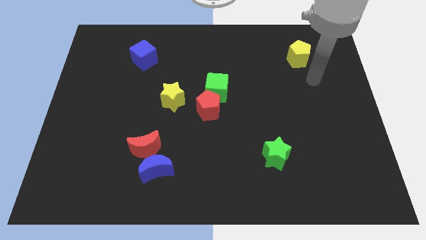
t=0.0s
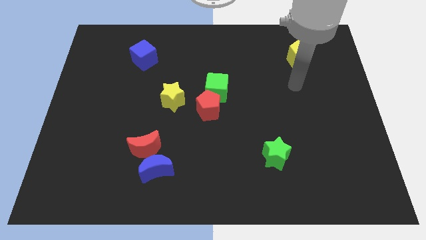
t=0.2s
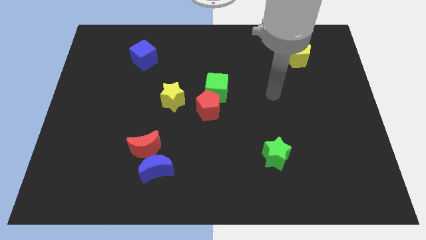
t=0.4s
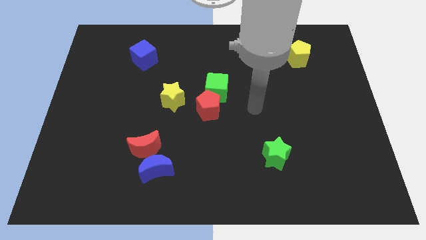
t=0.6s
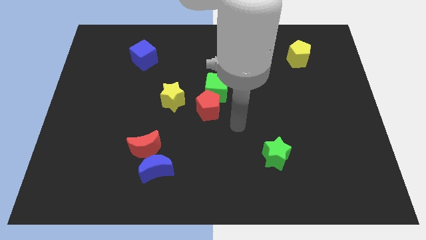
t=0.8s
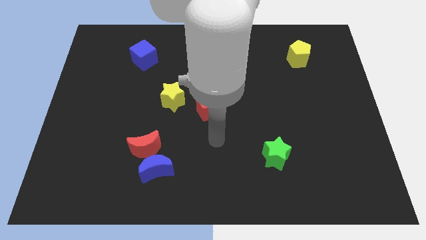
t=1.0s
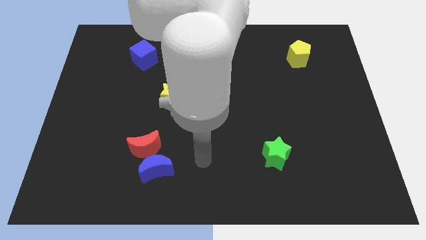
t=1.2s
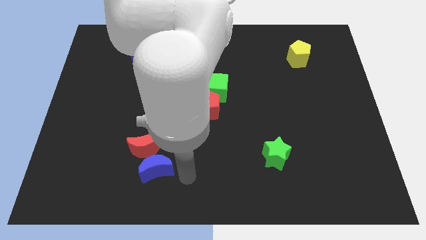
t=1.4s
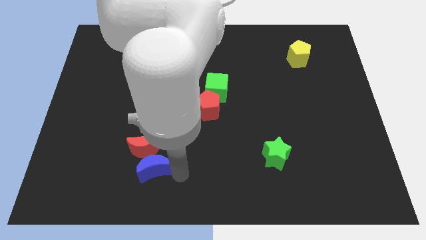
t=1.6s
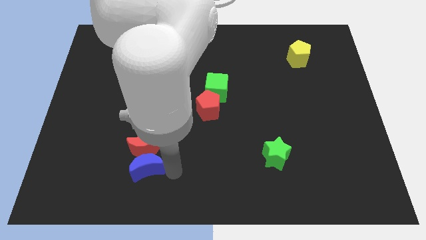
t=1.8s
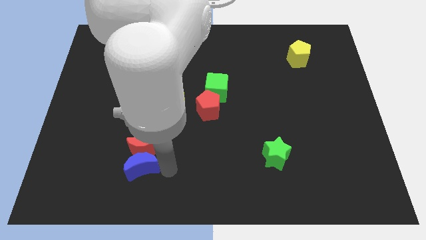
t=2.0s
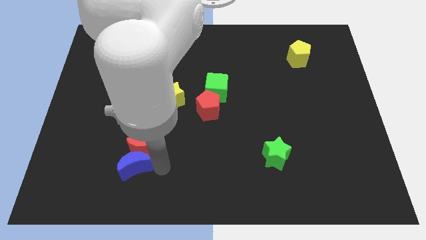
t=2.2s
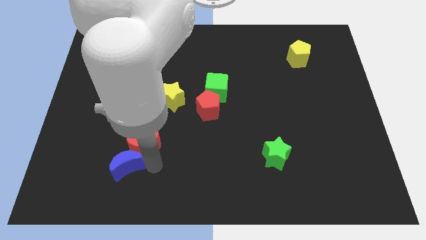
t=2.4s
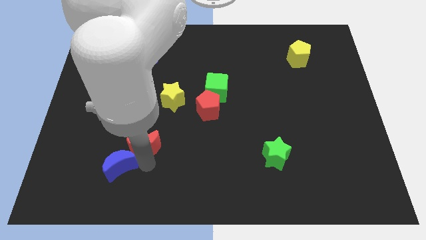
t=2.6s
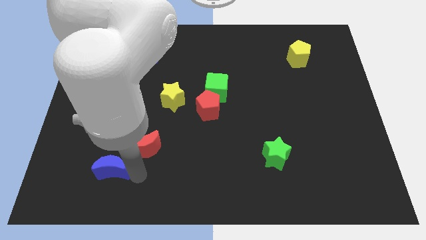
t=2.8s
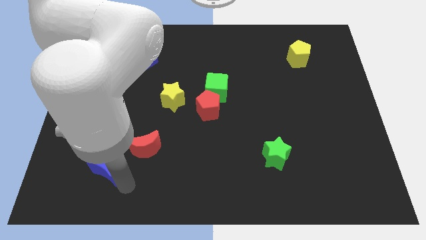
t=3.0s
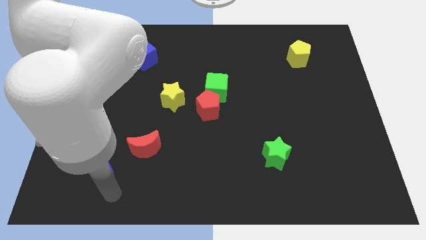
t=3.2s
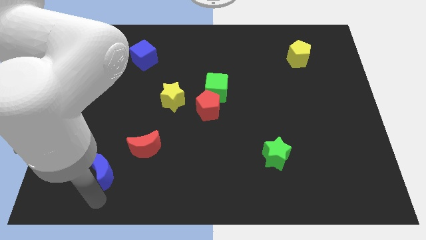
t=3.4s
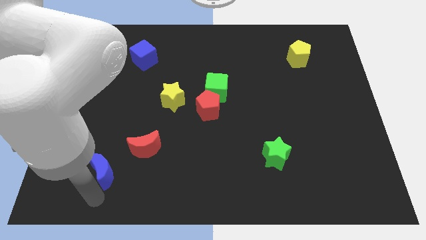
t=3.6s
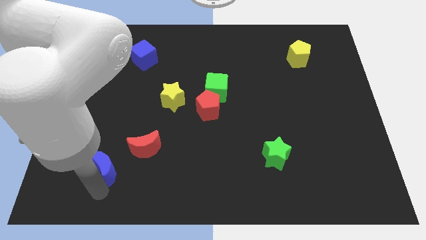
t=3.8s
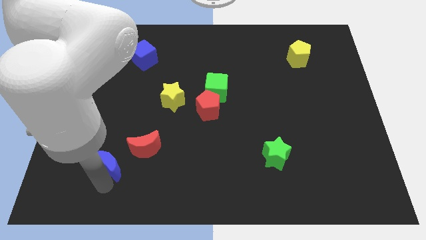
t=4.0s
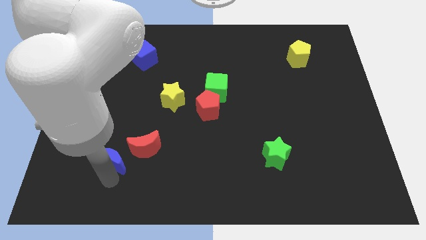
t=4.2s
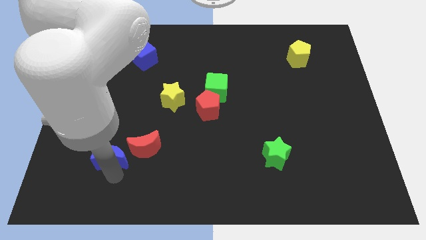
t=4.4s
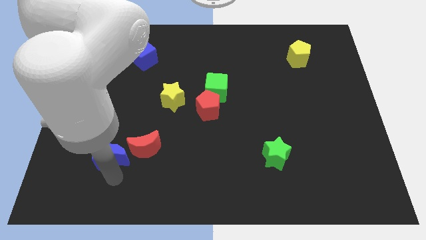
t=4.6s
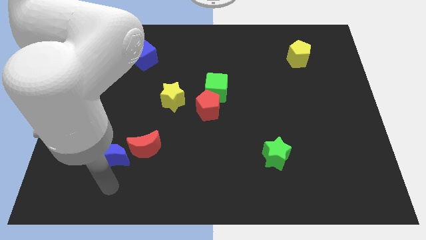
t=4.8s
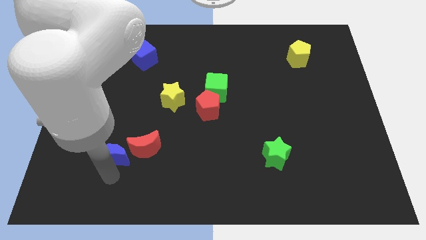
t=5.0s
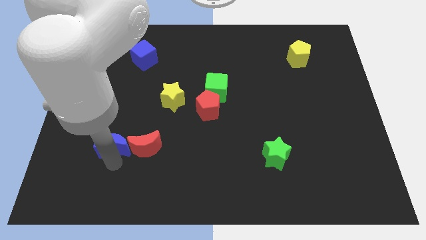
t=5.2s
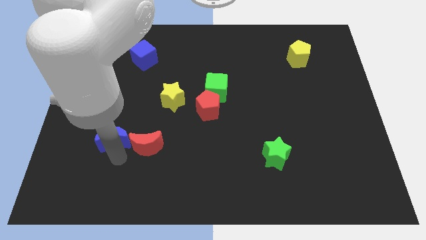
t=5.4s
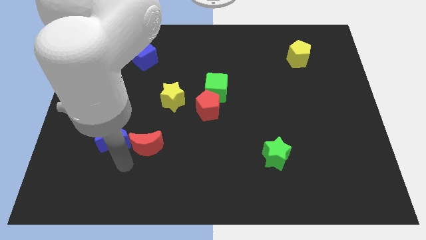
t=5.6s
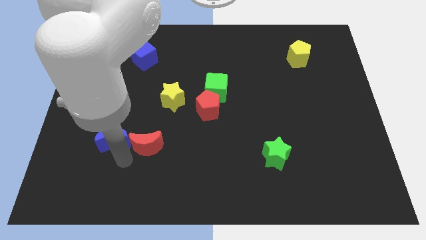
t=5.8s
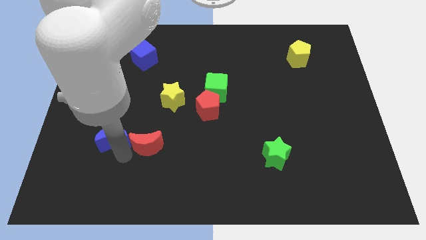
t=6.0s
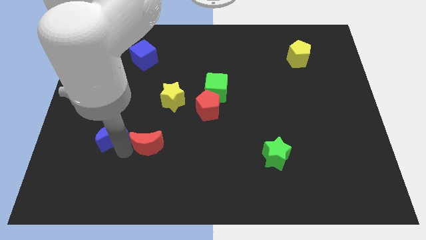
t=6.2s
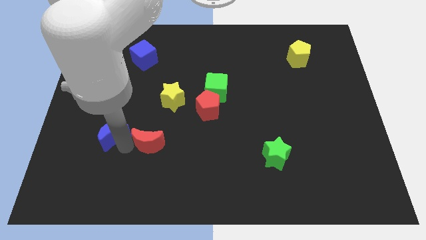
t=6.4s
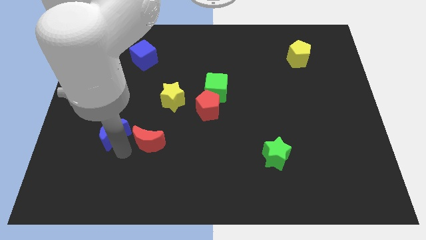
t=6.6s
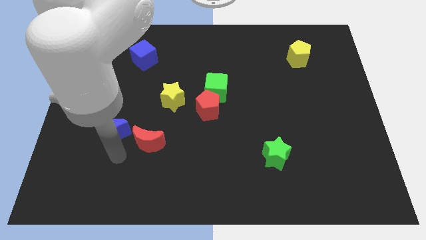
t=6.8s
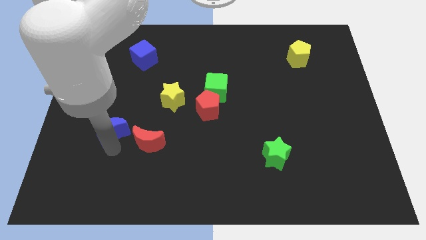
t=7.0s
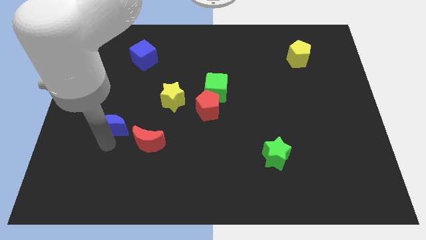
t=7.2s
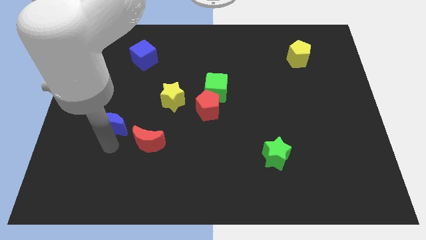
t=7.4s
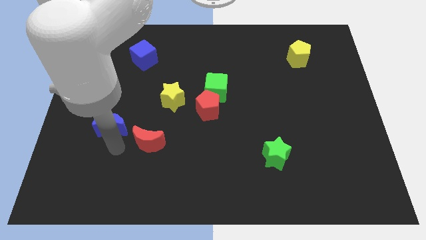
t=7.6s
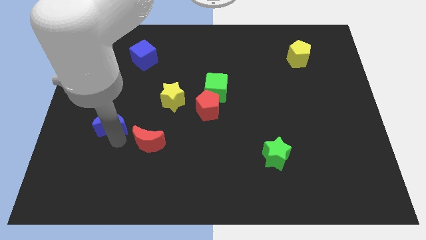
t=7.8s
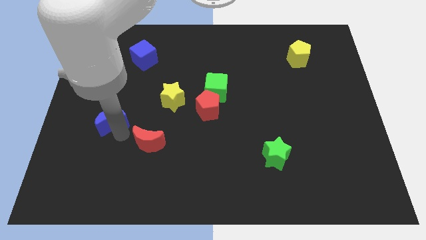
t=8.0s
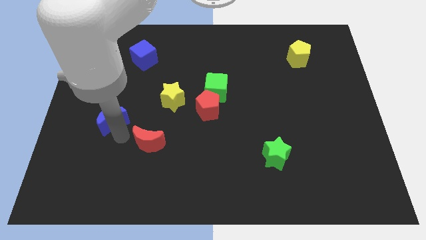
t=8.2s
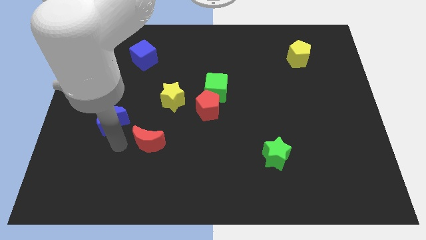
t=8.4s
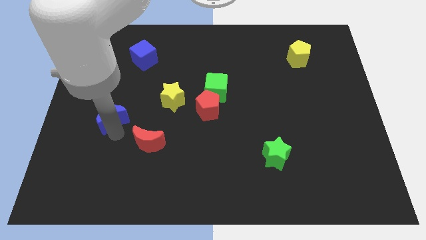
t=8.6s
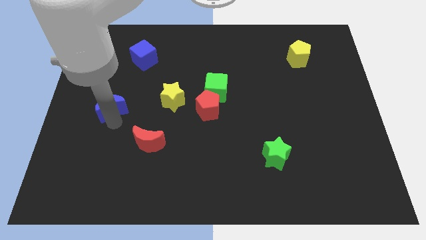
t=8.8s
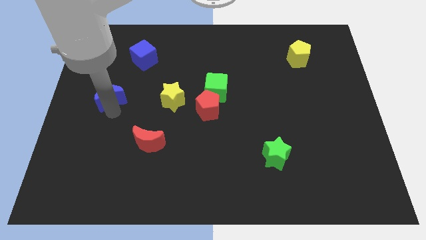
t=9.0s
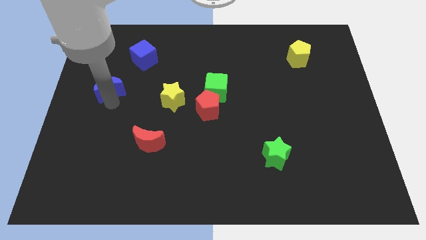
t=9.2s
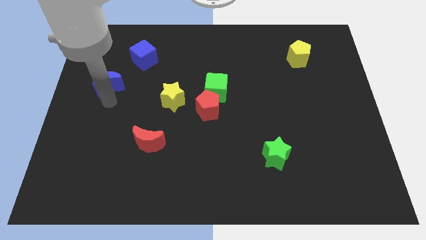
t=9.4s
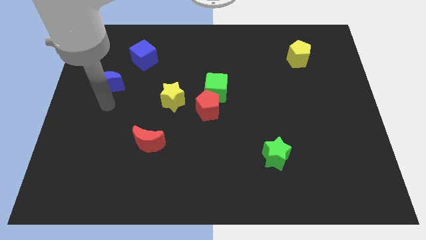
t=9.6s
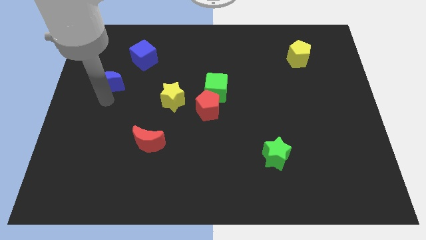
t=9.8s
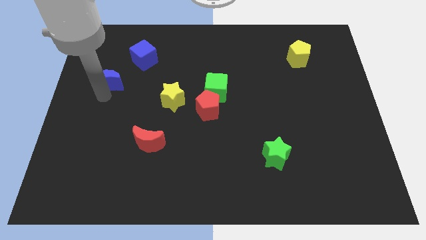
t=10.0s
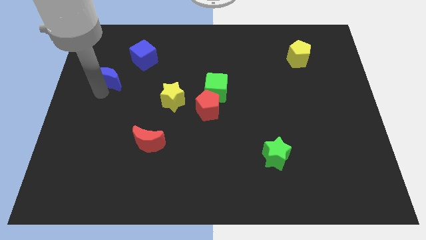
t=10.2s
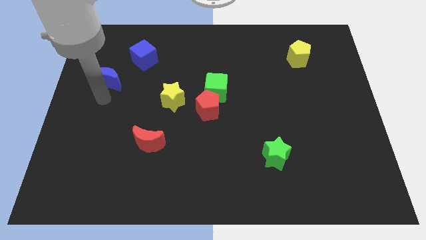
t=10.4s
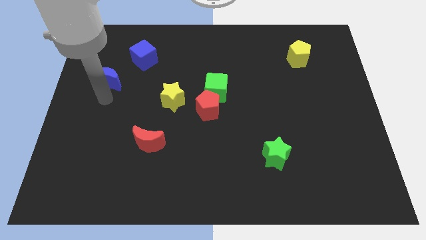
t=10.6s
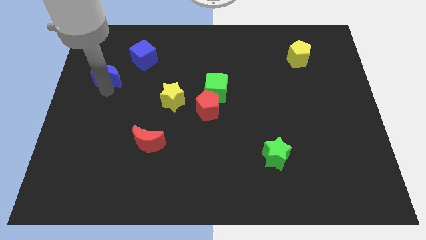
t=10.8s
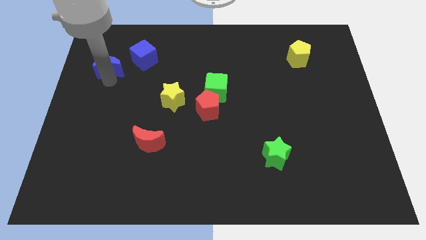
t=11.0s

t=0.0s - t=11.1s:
move the blue moon left of the blue cube

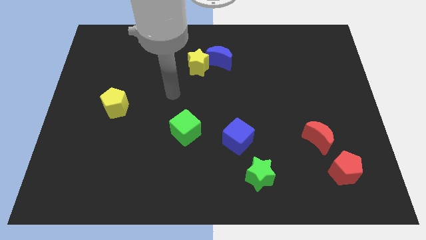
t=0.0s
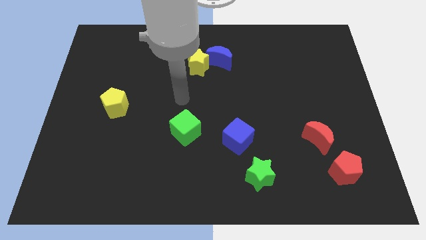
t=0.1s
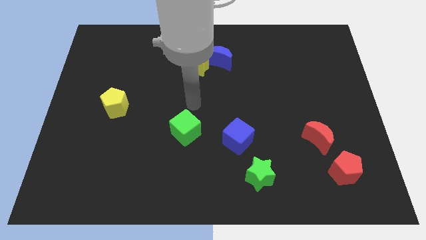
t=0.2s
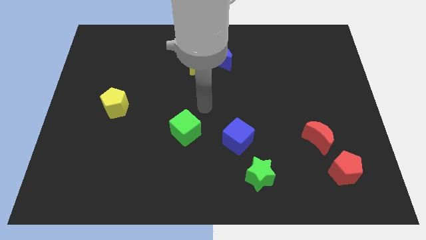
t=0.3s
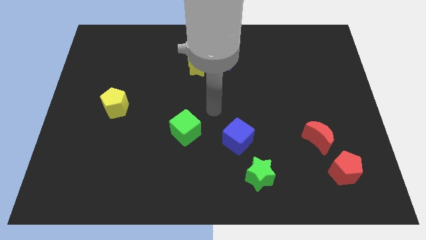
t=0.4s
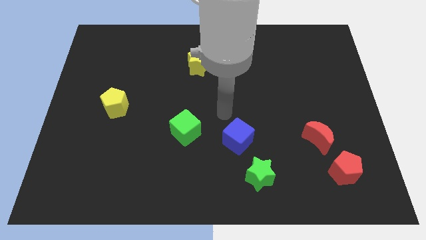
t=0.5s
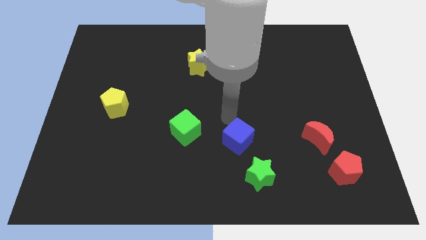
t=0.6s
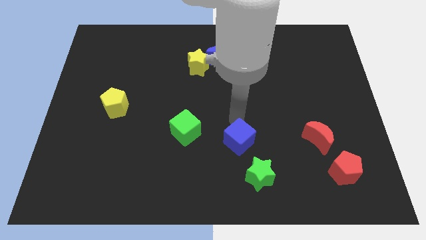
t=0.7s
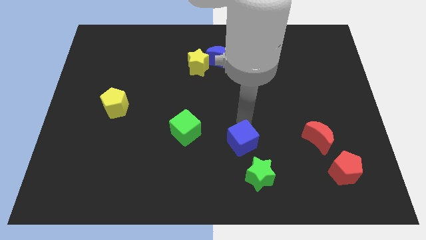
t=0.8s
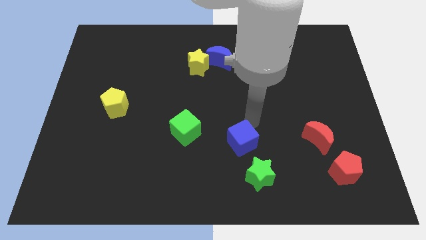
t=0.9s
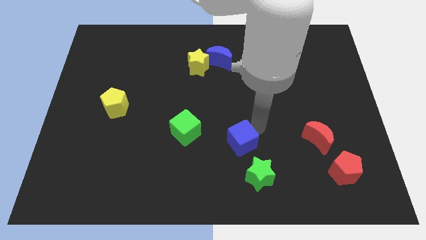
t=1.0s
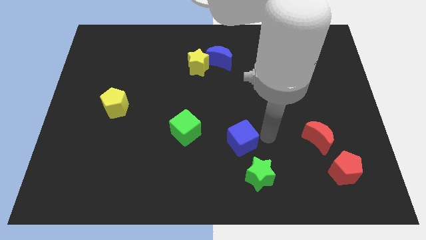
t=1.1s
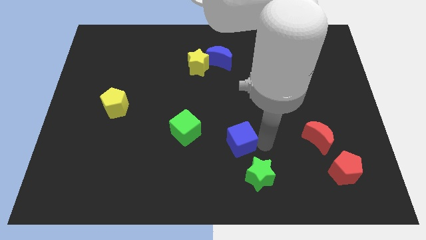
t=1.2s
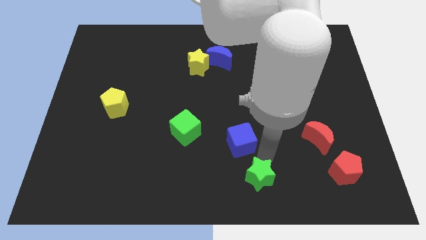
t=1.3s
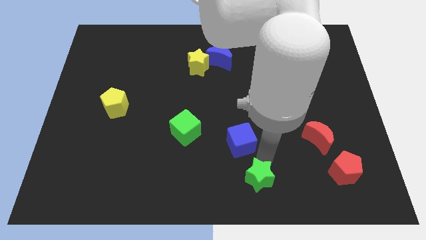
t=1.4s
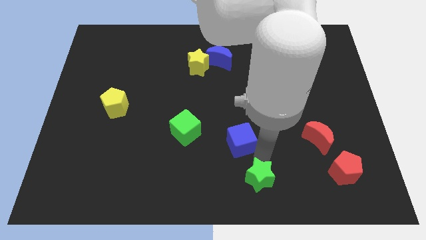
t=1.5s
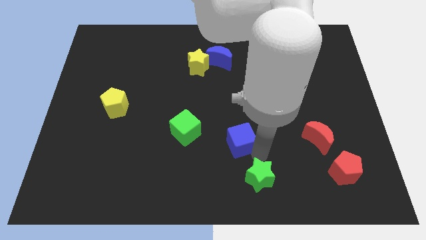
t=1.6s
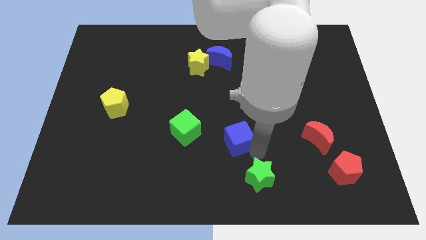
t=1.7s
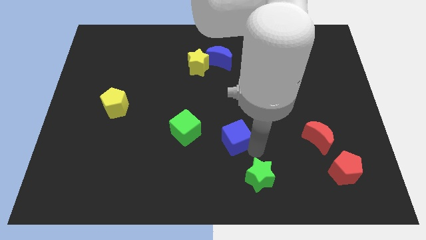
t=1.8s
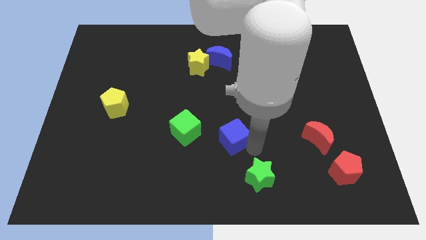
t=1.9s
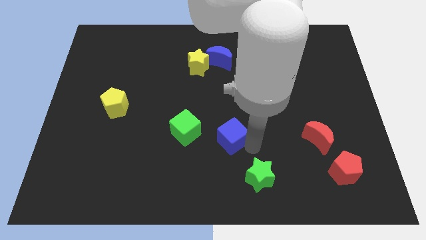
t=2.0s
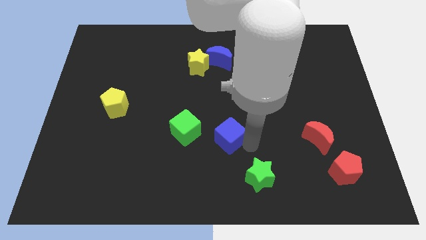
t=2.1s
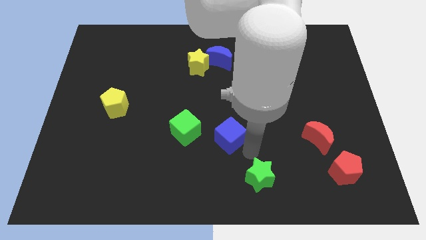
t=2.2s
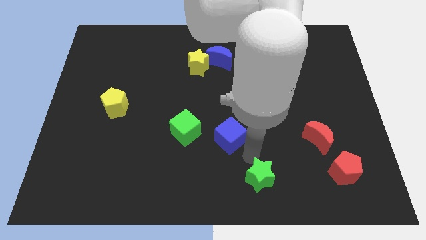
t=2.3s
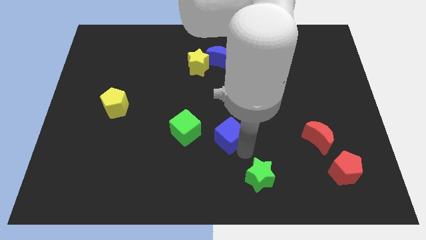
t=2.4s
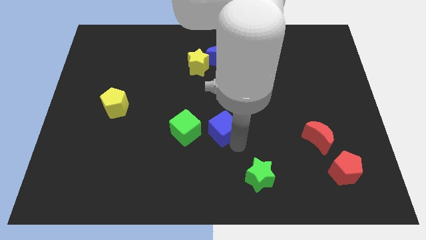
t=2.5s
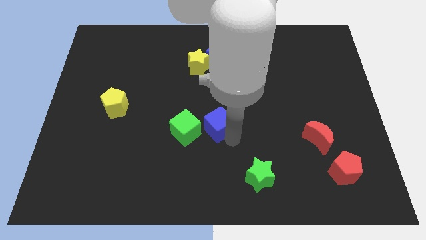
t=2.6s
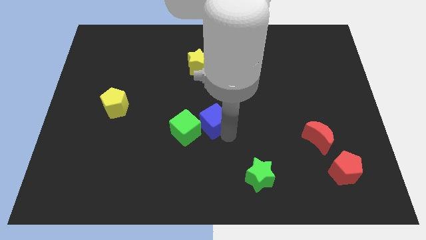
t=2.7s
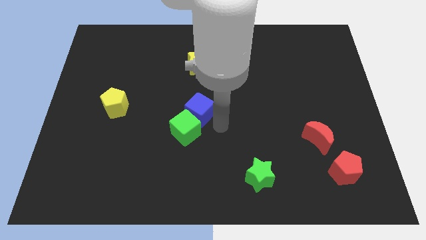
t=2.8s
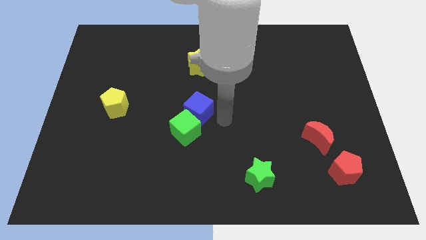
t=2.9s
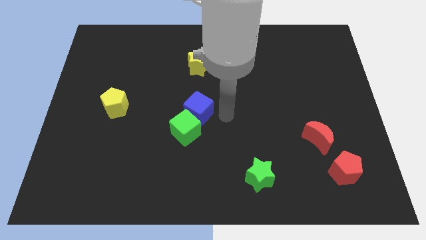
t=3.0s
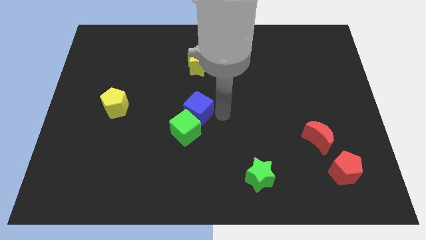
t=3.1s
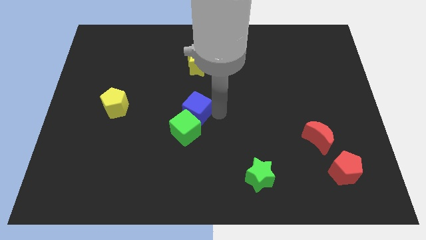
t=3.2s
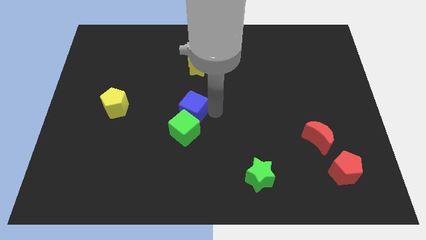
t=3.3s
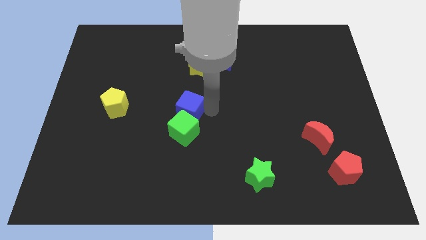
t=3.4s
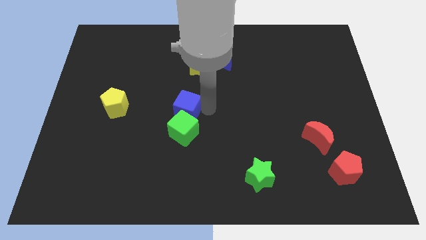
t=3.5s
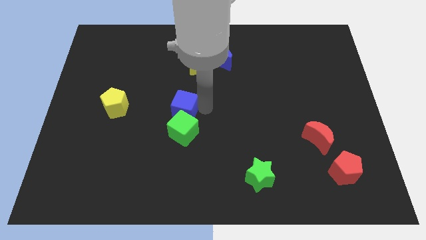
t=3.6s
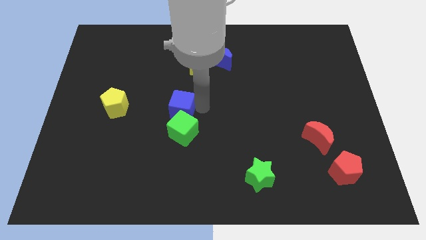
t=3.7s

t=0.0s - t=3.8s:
push the blue cube to the right side of the yellow pentagon
